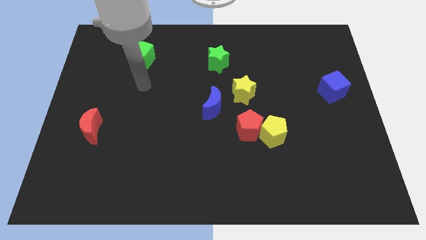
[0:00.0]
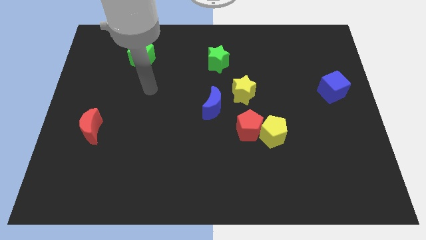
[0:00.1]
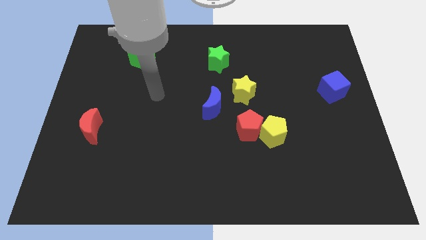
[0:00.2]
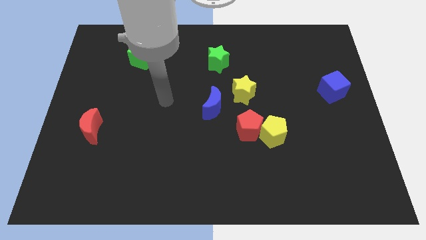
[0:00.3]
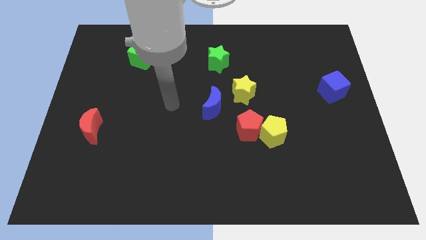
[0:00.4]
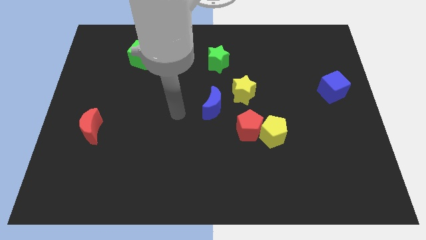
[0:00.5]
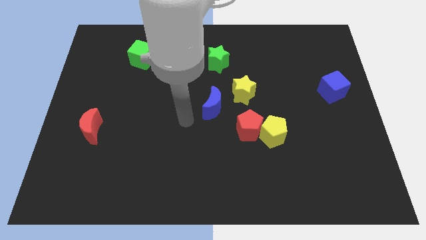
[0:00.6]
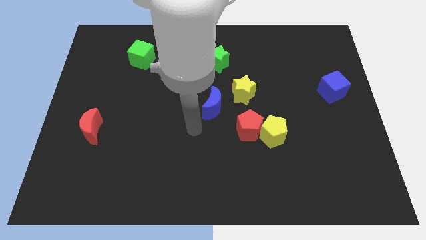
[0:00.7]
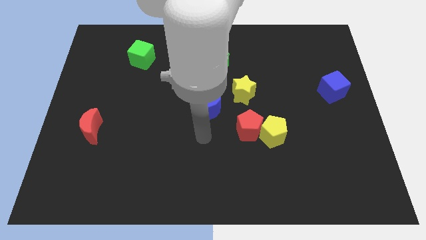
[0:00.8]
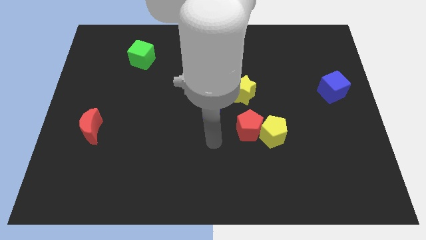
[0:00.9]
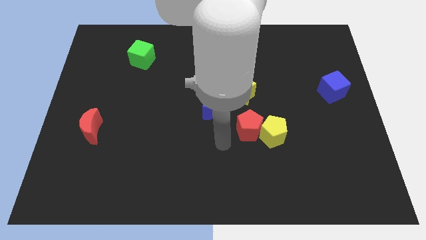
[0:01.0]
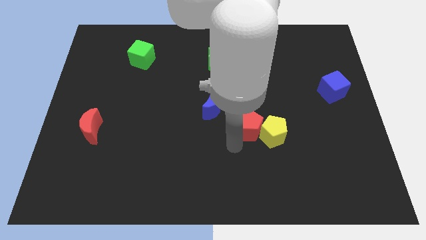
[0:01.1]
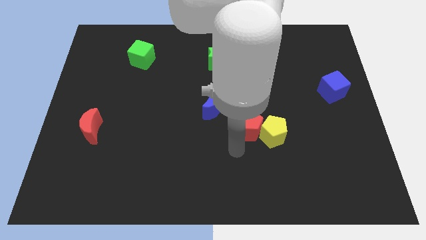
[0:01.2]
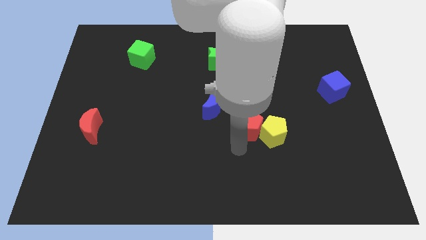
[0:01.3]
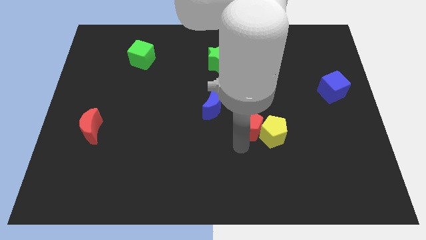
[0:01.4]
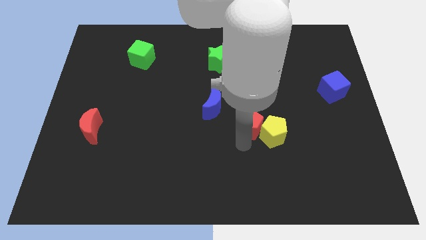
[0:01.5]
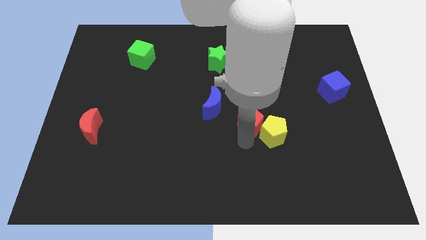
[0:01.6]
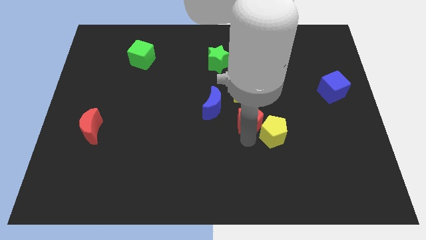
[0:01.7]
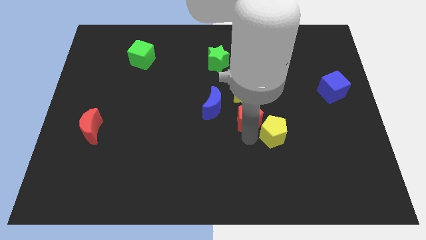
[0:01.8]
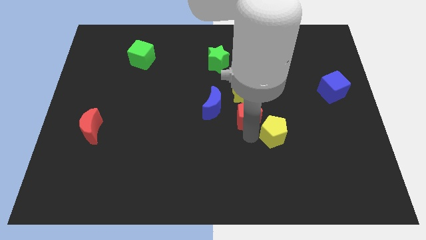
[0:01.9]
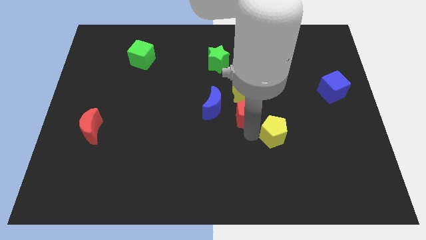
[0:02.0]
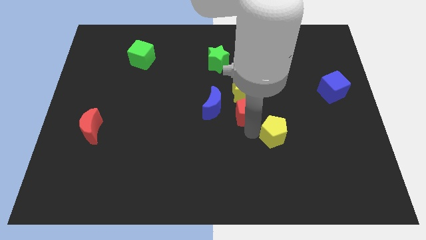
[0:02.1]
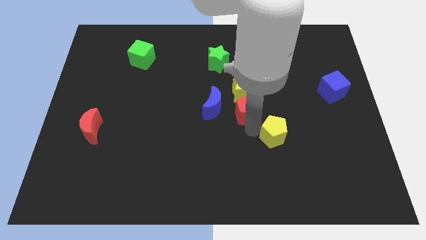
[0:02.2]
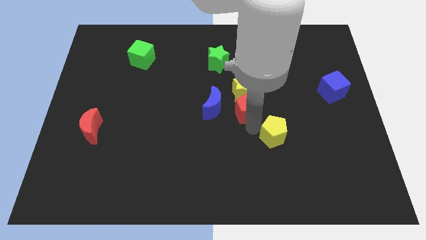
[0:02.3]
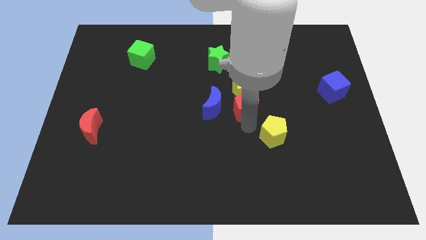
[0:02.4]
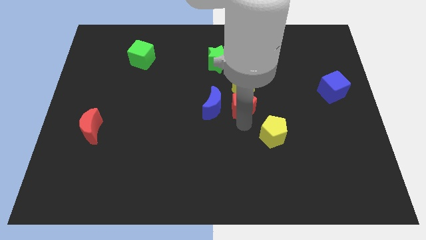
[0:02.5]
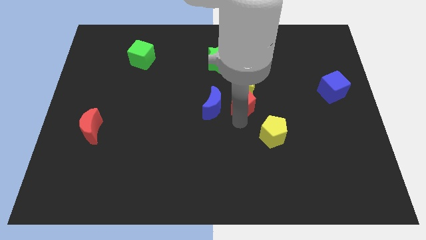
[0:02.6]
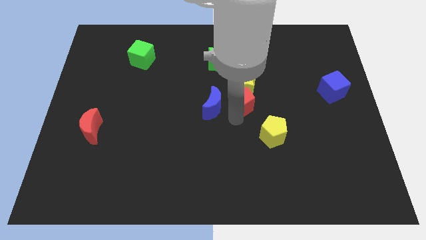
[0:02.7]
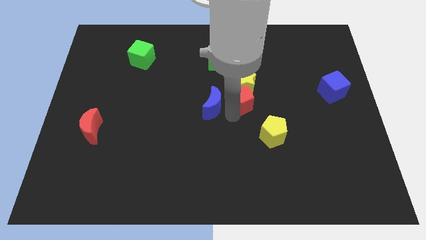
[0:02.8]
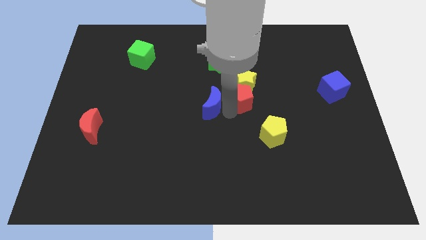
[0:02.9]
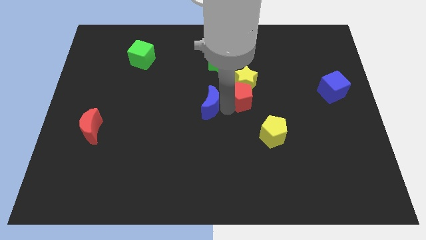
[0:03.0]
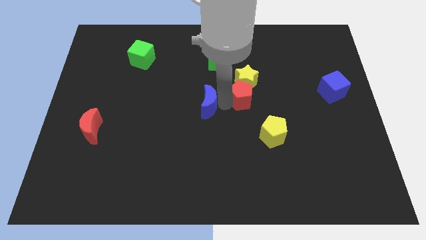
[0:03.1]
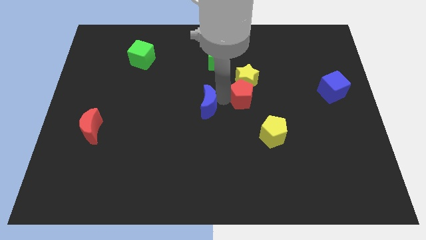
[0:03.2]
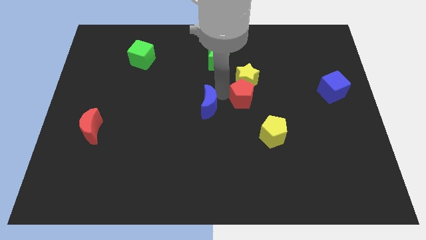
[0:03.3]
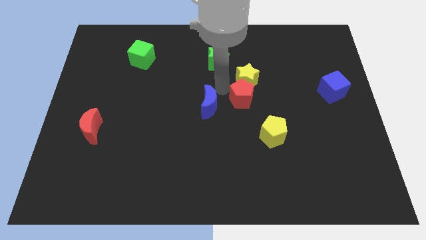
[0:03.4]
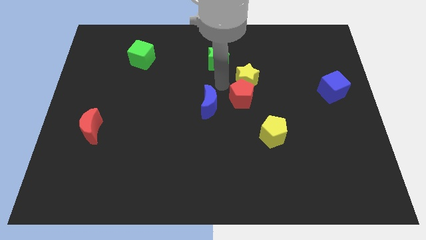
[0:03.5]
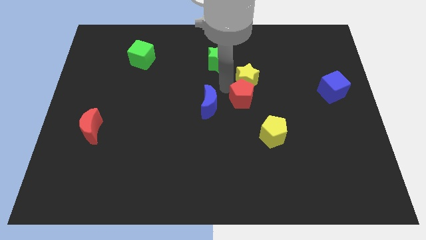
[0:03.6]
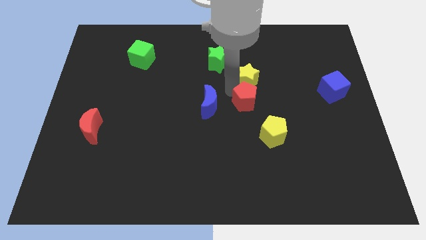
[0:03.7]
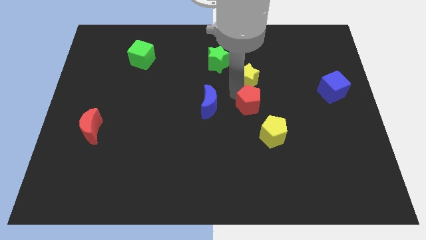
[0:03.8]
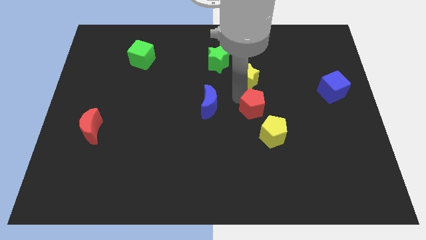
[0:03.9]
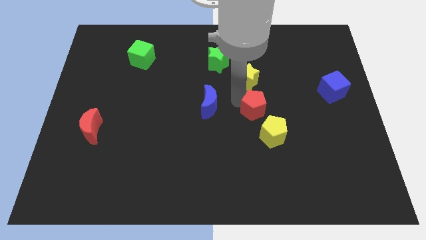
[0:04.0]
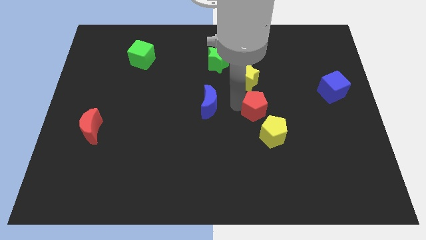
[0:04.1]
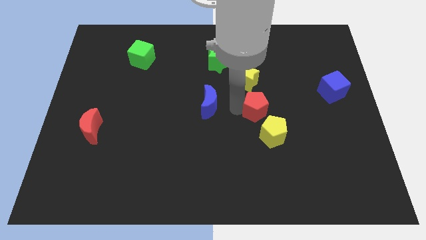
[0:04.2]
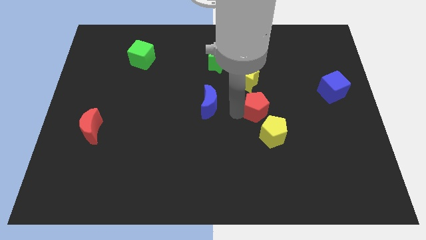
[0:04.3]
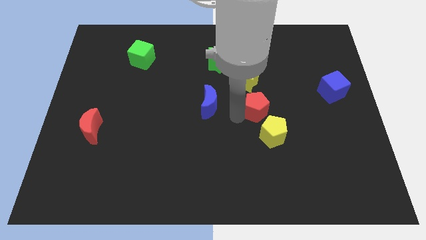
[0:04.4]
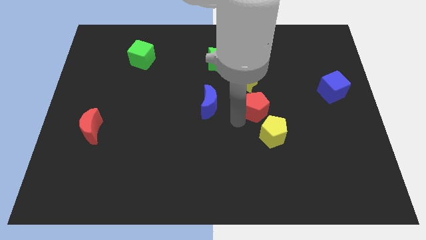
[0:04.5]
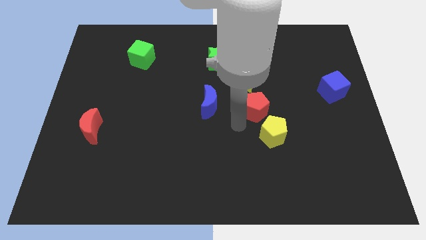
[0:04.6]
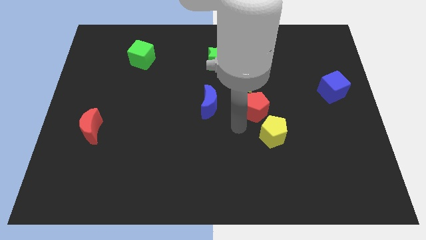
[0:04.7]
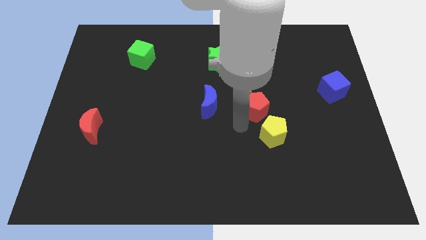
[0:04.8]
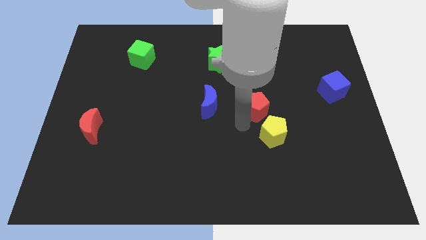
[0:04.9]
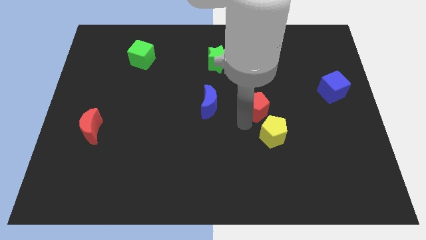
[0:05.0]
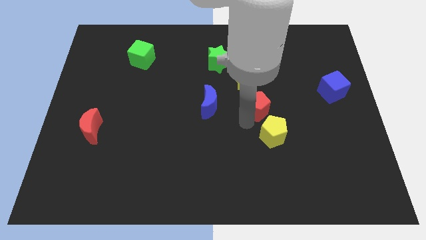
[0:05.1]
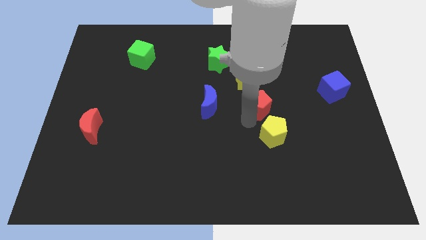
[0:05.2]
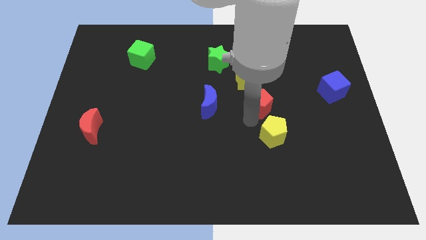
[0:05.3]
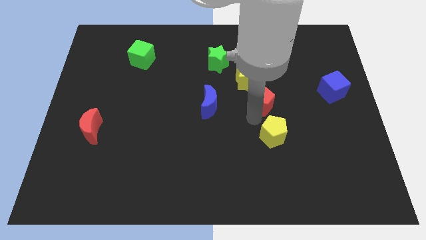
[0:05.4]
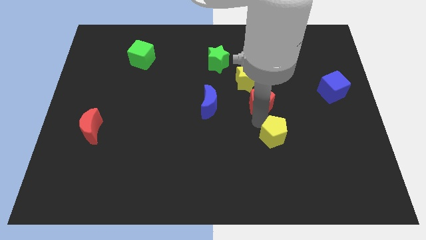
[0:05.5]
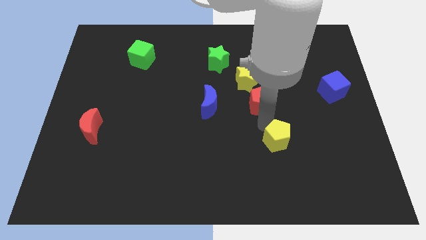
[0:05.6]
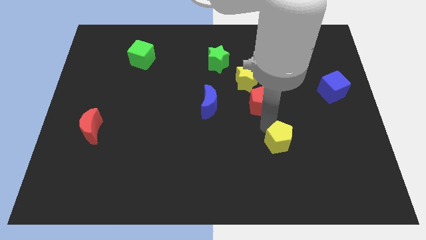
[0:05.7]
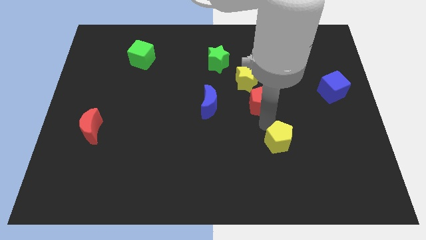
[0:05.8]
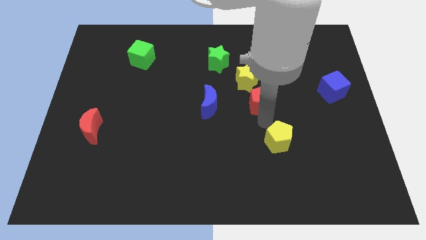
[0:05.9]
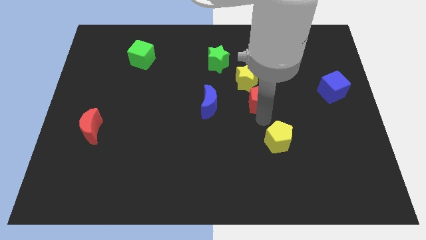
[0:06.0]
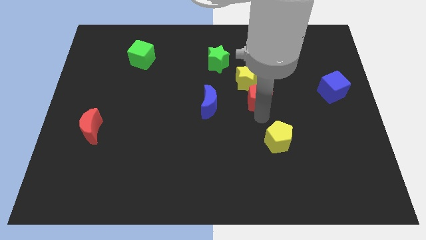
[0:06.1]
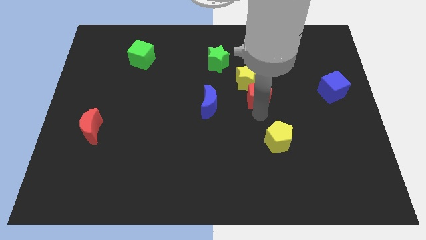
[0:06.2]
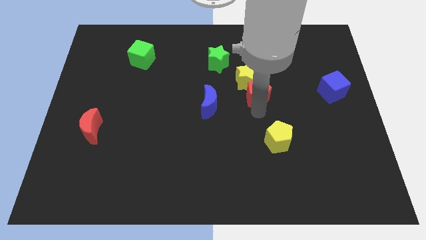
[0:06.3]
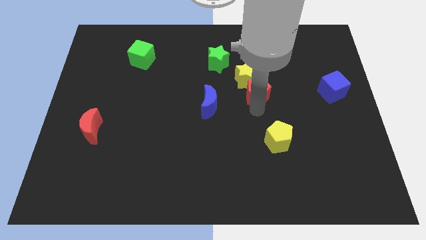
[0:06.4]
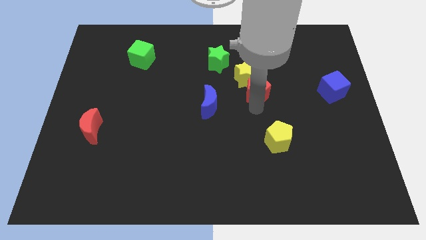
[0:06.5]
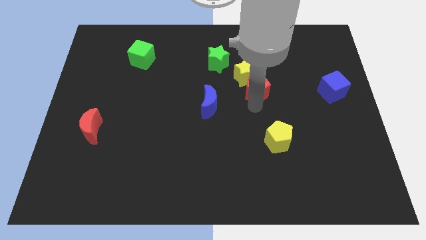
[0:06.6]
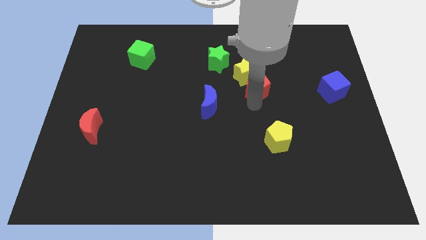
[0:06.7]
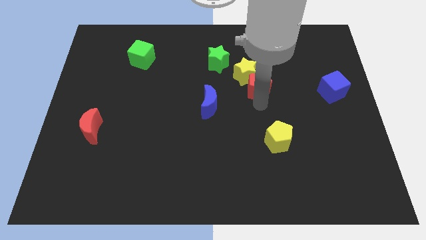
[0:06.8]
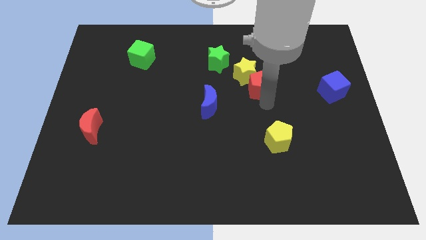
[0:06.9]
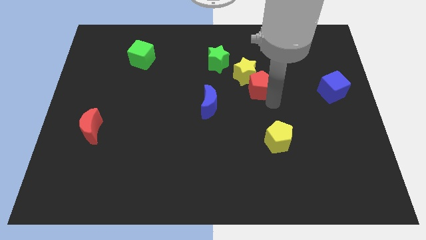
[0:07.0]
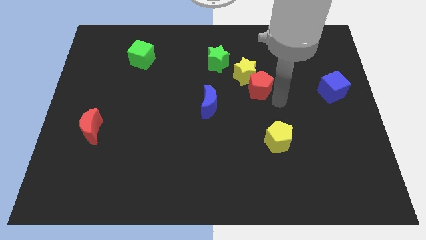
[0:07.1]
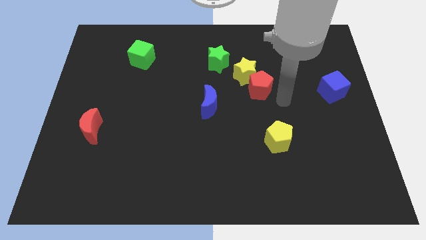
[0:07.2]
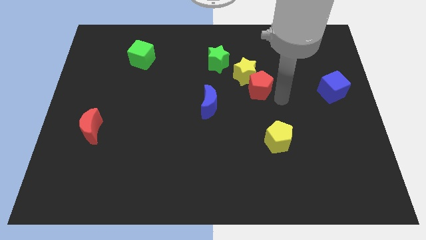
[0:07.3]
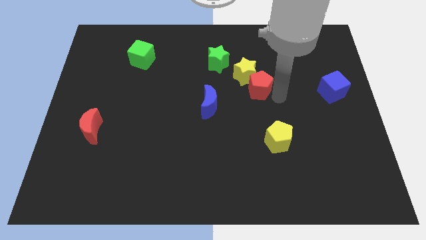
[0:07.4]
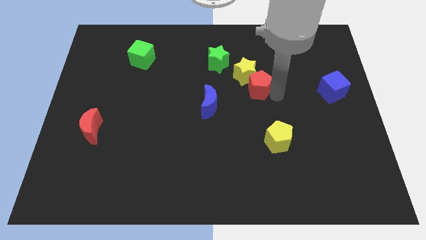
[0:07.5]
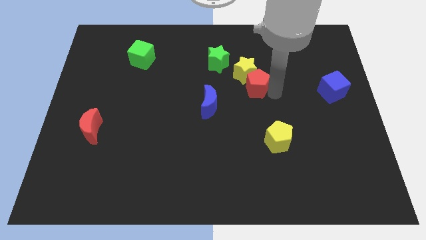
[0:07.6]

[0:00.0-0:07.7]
slide the red pentagon to the bottom right side of the green star
